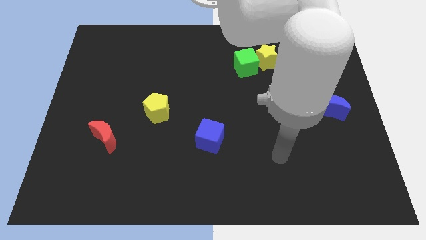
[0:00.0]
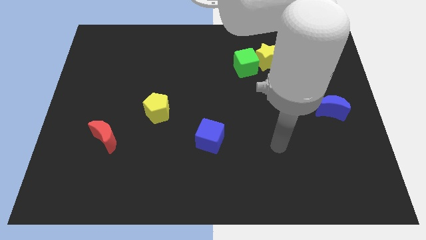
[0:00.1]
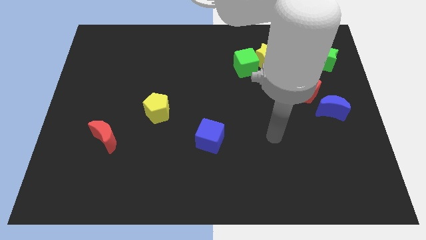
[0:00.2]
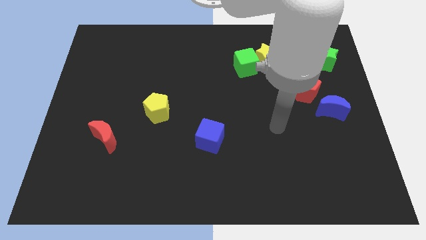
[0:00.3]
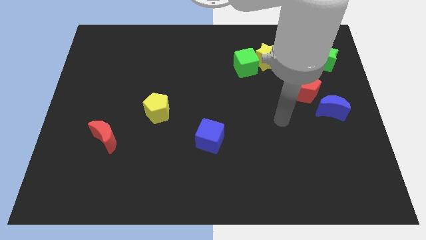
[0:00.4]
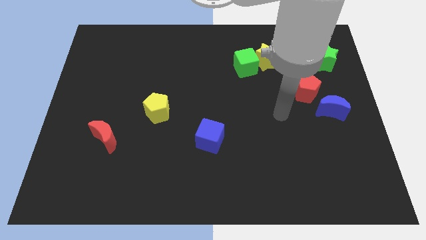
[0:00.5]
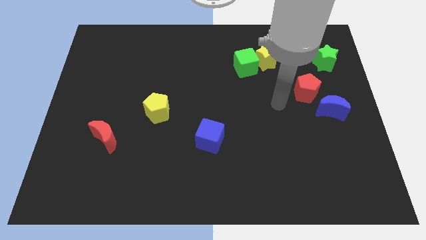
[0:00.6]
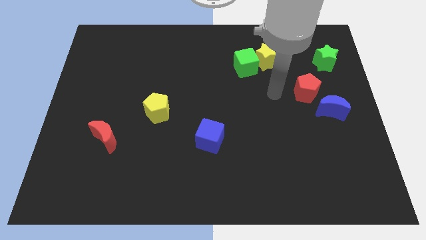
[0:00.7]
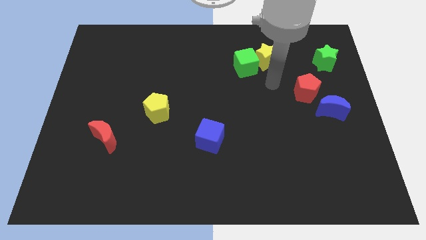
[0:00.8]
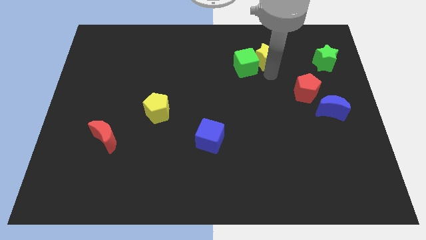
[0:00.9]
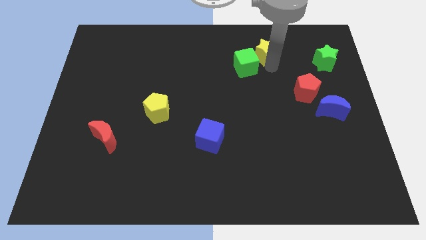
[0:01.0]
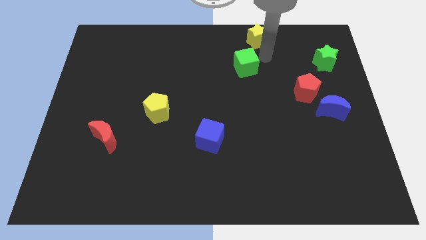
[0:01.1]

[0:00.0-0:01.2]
separate the green cube from the yellow star

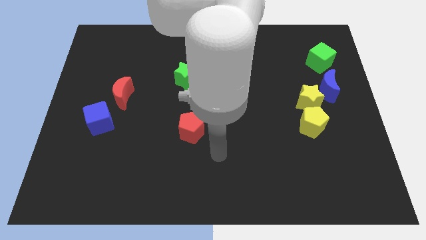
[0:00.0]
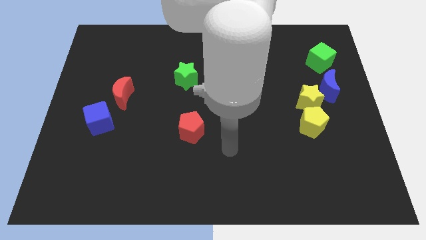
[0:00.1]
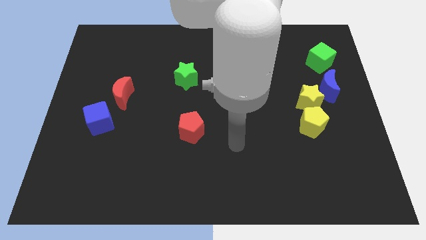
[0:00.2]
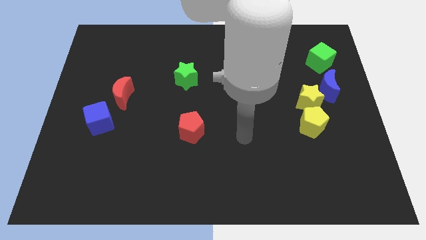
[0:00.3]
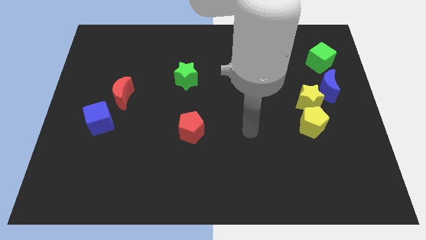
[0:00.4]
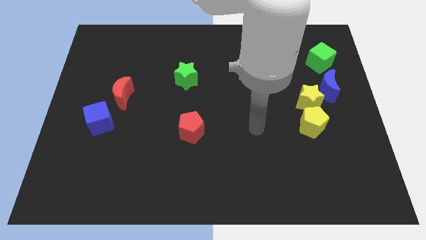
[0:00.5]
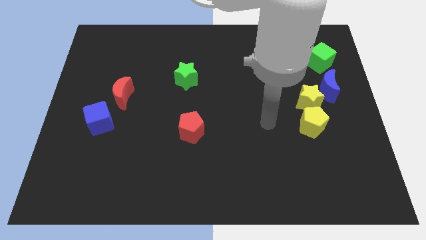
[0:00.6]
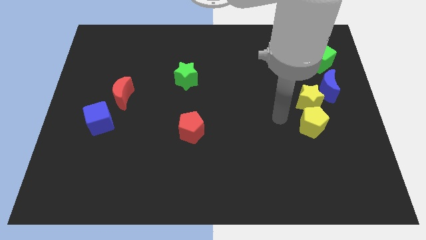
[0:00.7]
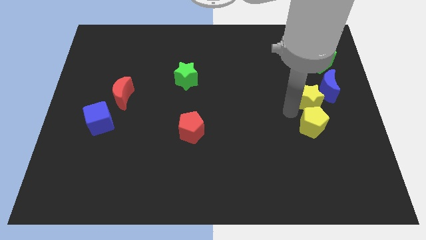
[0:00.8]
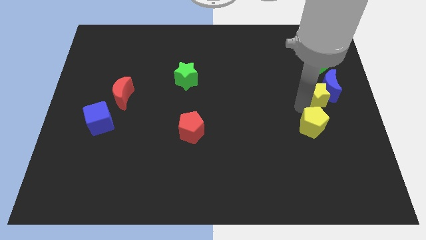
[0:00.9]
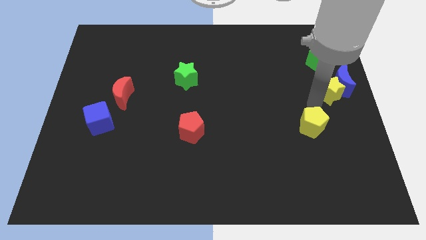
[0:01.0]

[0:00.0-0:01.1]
move the yellow pentagon away from the yellow star

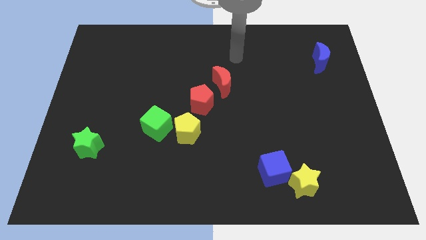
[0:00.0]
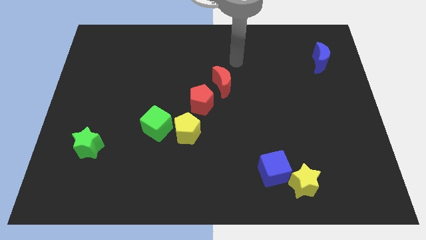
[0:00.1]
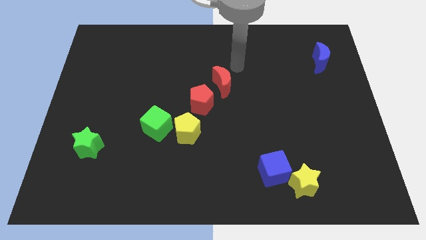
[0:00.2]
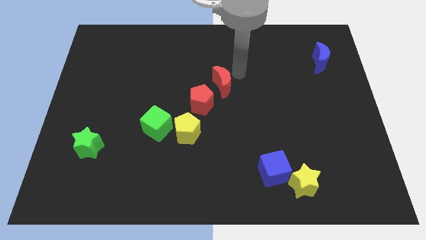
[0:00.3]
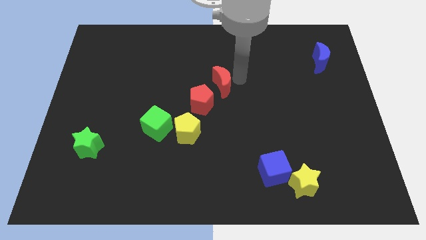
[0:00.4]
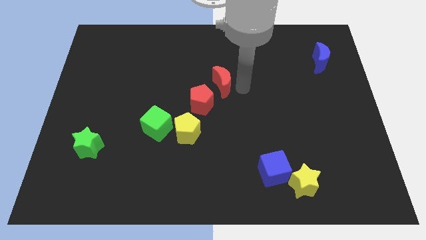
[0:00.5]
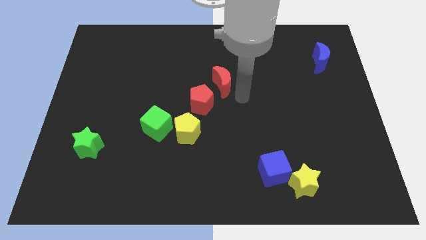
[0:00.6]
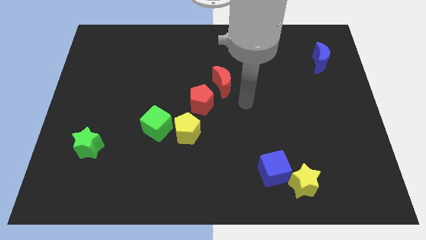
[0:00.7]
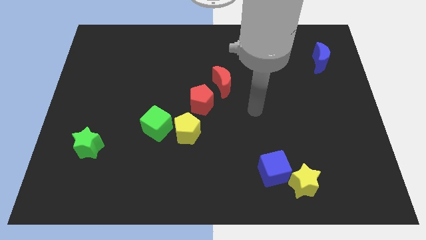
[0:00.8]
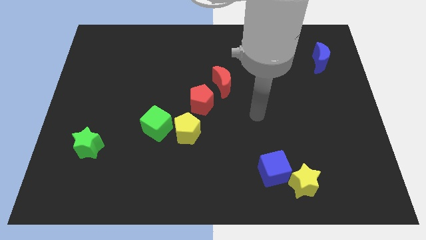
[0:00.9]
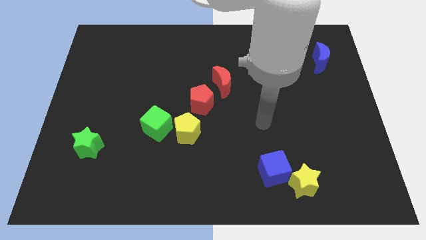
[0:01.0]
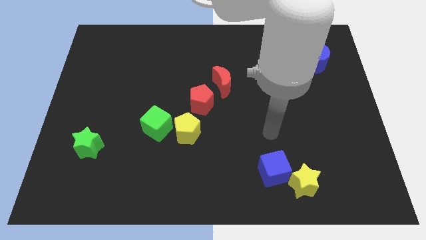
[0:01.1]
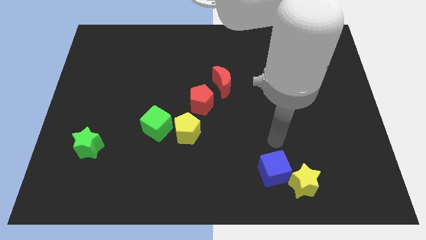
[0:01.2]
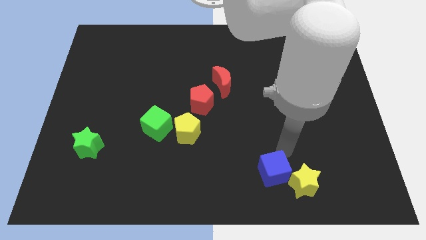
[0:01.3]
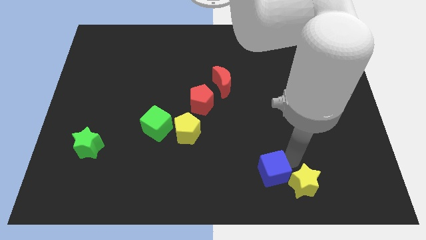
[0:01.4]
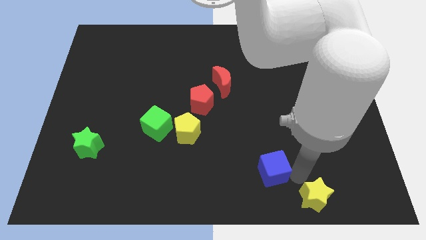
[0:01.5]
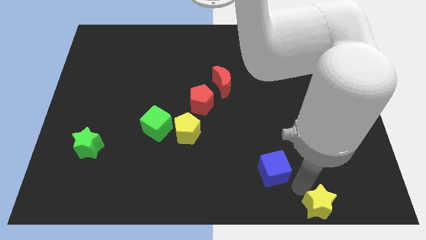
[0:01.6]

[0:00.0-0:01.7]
pull the blue cube apart from the yellow star

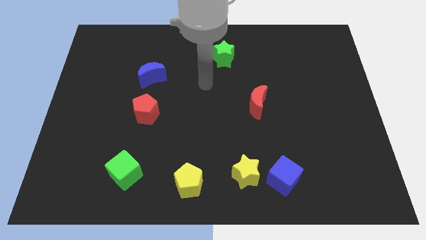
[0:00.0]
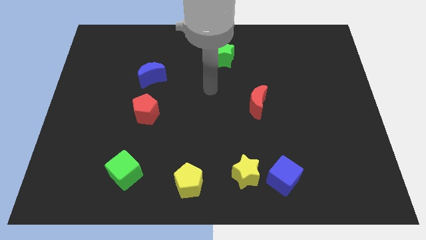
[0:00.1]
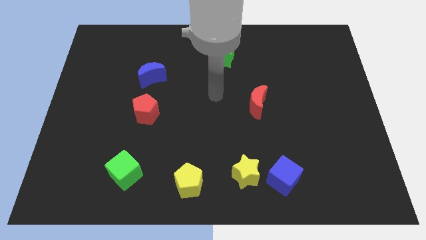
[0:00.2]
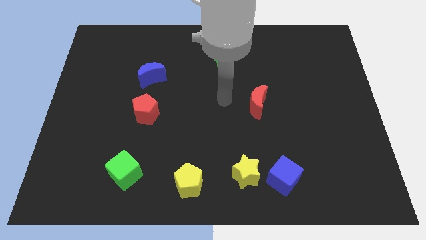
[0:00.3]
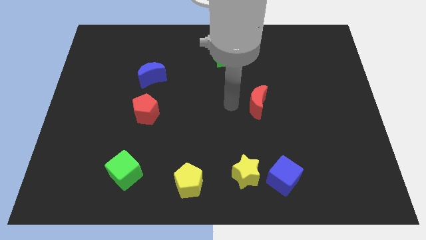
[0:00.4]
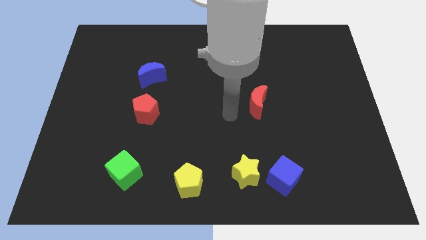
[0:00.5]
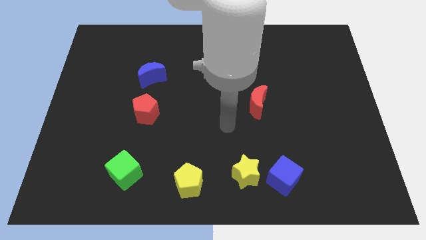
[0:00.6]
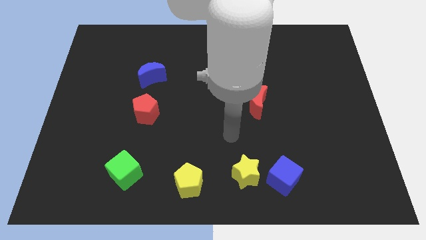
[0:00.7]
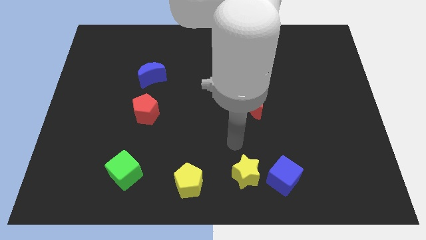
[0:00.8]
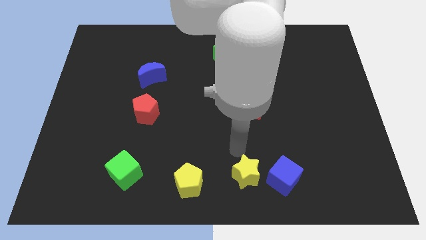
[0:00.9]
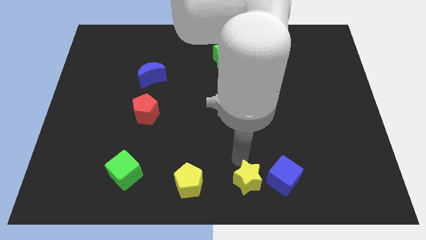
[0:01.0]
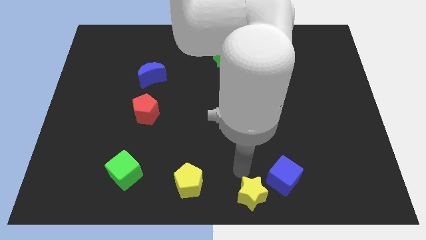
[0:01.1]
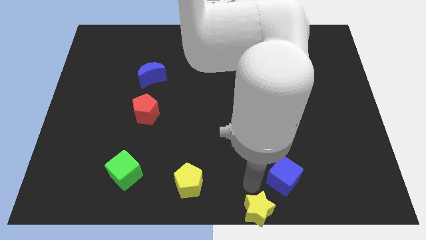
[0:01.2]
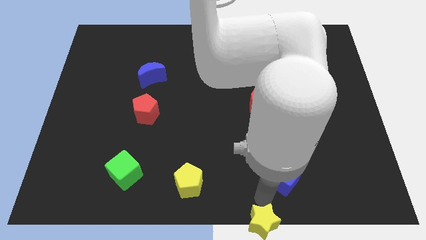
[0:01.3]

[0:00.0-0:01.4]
separate the blue cube from the yellow star

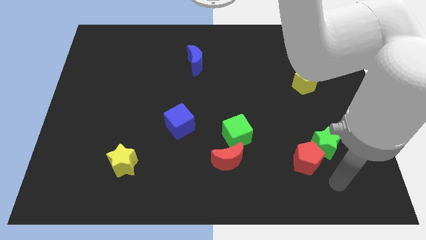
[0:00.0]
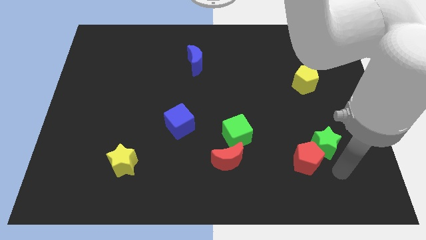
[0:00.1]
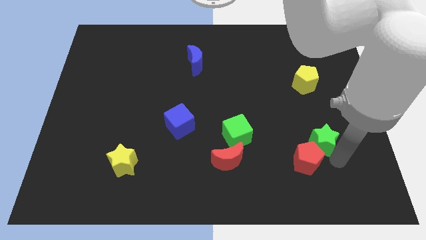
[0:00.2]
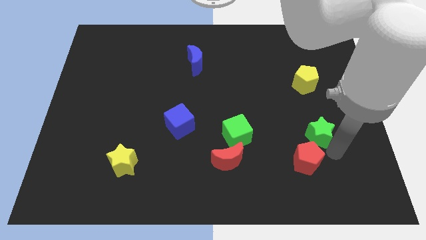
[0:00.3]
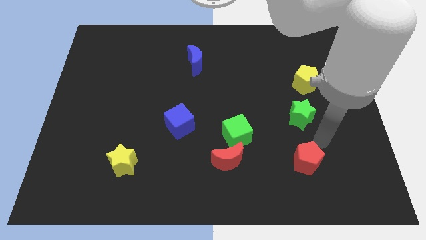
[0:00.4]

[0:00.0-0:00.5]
move the red pentagon away from the green star

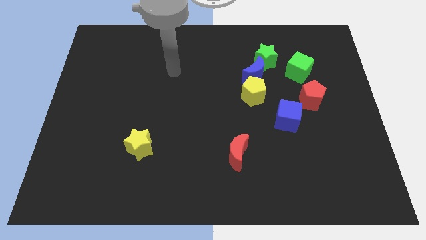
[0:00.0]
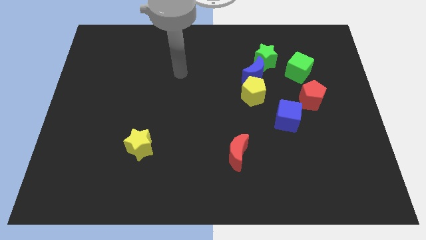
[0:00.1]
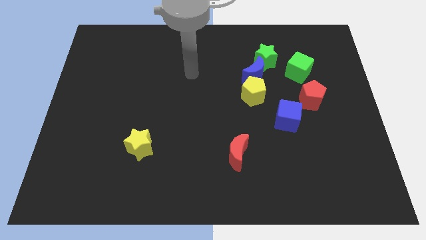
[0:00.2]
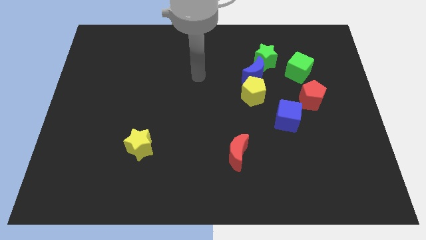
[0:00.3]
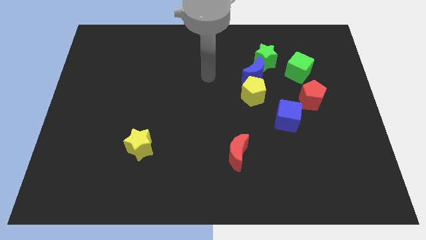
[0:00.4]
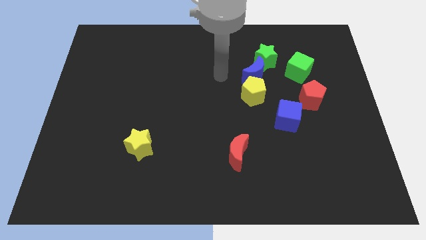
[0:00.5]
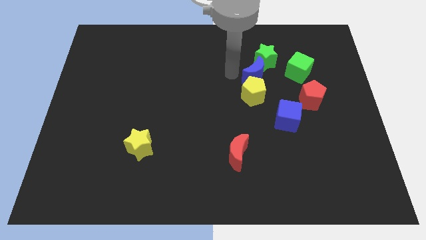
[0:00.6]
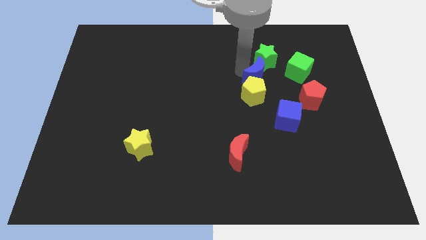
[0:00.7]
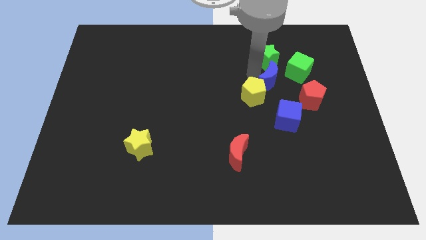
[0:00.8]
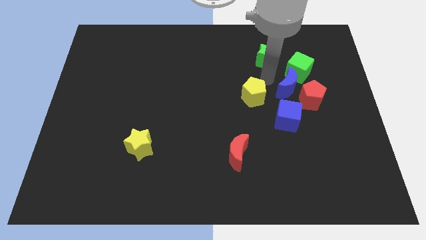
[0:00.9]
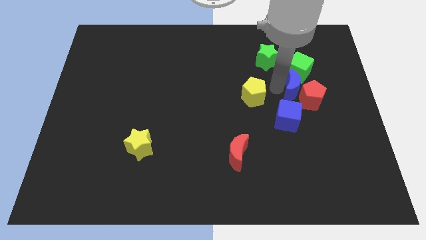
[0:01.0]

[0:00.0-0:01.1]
separate the yellow pentagon from the blue moon

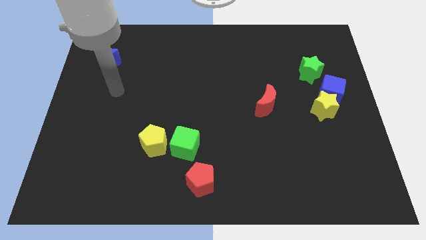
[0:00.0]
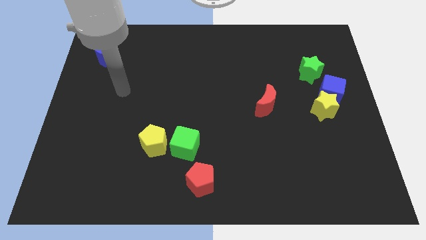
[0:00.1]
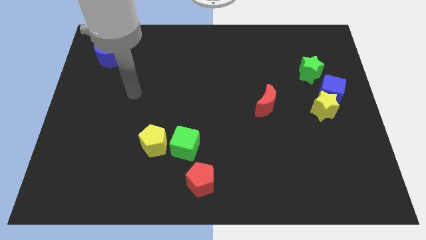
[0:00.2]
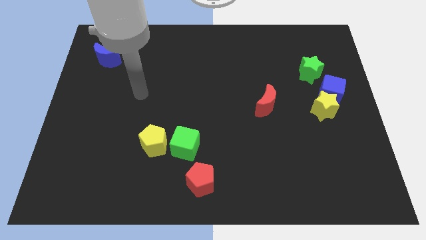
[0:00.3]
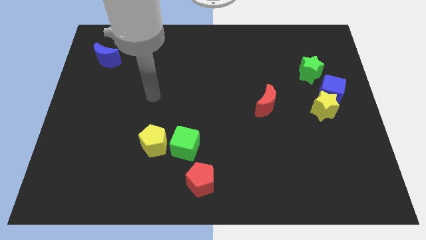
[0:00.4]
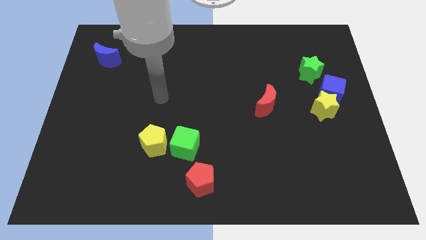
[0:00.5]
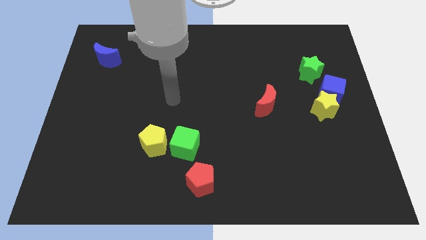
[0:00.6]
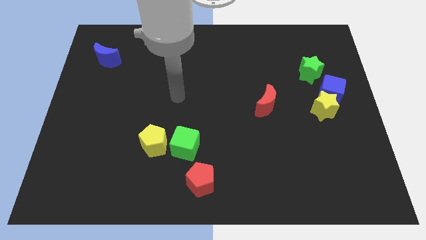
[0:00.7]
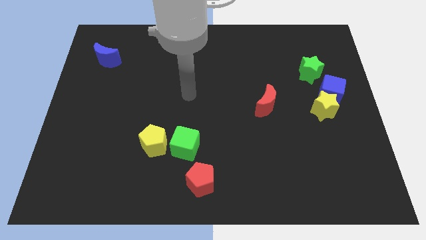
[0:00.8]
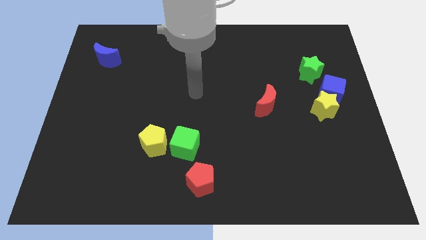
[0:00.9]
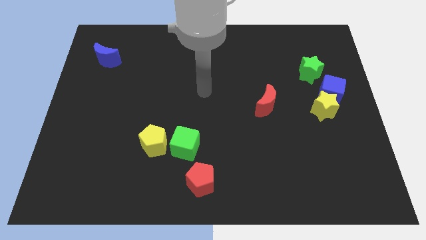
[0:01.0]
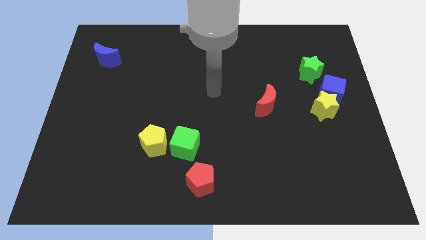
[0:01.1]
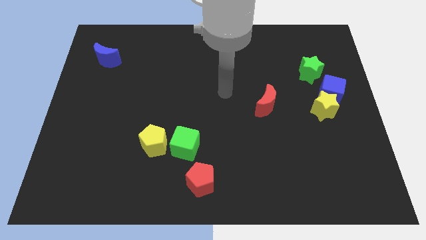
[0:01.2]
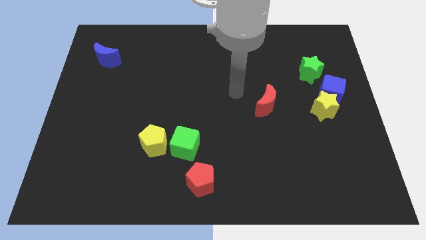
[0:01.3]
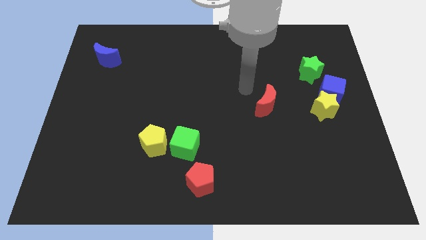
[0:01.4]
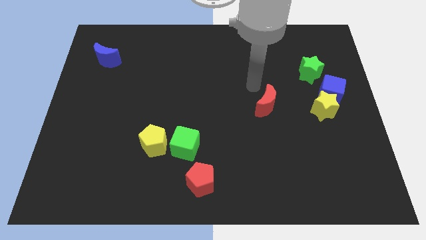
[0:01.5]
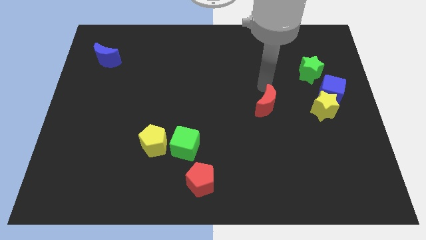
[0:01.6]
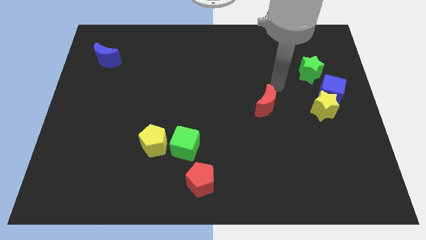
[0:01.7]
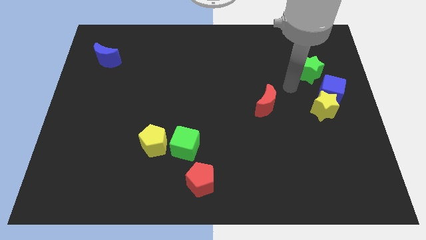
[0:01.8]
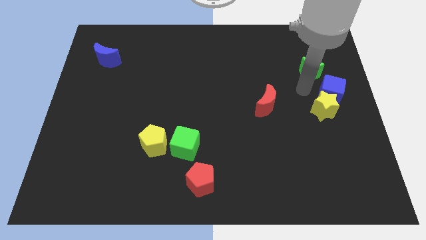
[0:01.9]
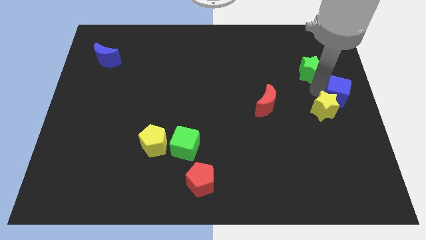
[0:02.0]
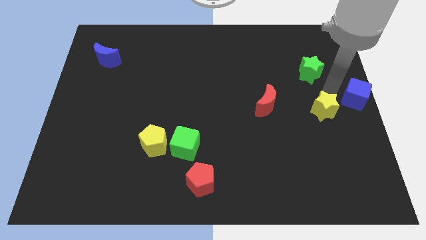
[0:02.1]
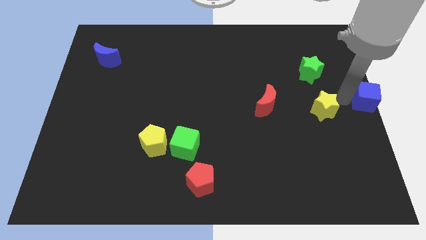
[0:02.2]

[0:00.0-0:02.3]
move the yellow star away from the blue cube

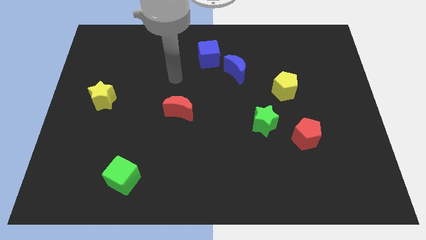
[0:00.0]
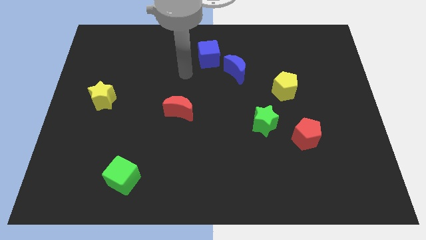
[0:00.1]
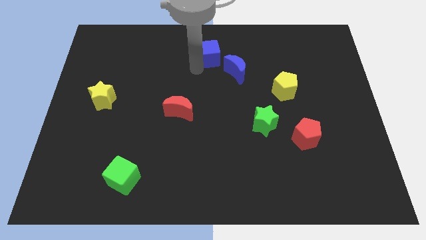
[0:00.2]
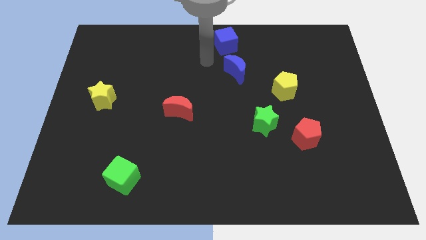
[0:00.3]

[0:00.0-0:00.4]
pull the blue moon apart from the blue cube
